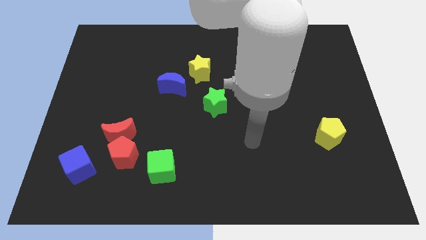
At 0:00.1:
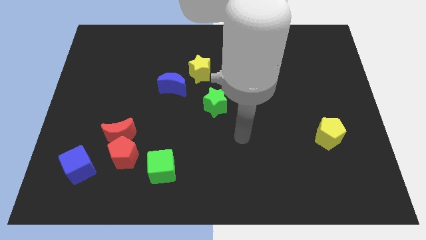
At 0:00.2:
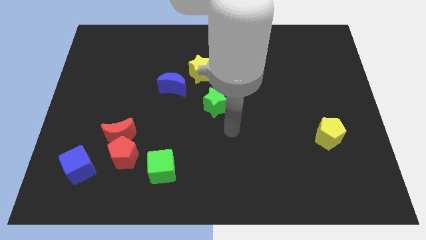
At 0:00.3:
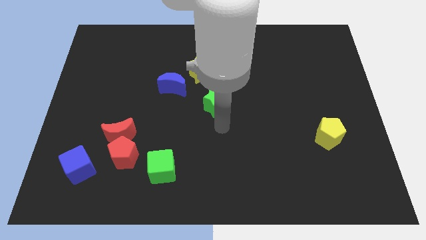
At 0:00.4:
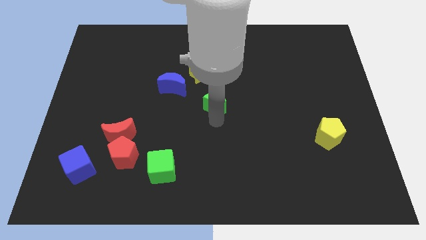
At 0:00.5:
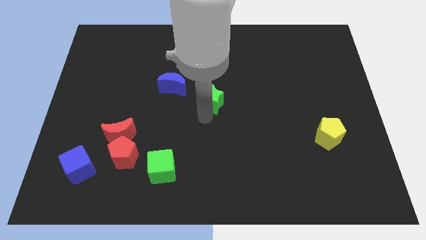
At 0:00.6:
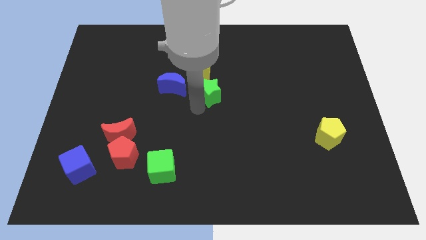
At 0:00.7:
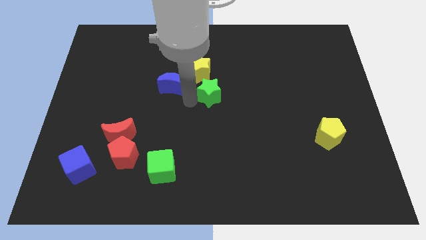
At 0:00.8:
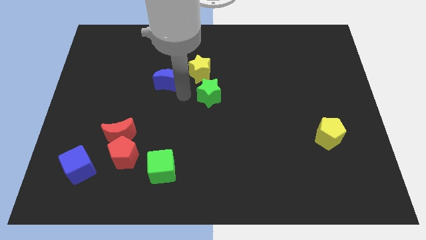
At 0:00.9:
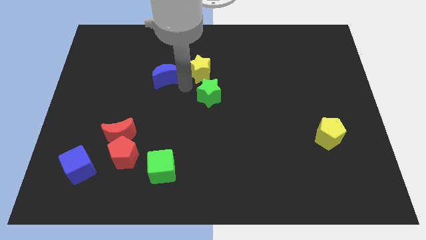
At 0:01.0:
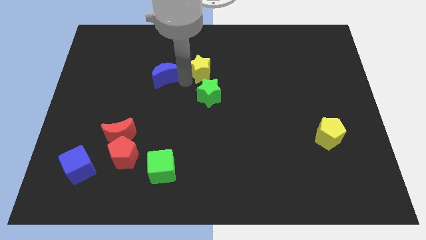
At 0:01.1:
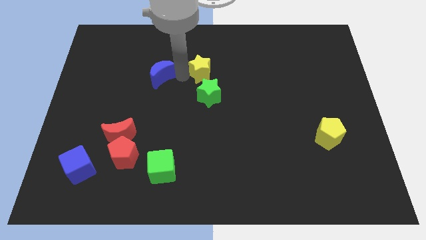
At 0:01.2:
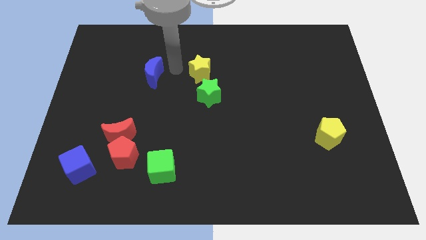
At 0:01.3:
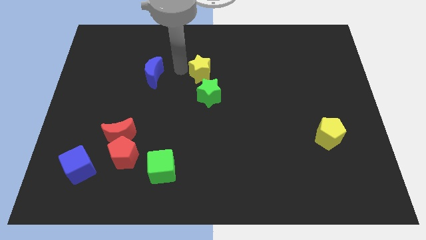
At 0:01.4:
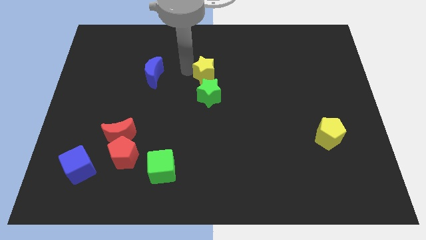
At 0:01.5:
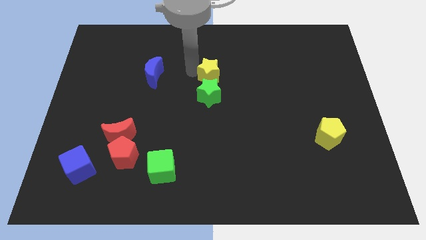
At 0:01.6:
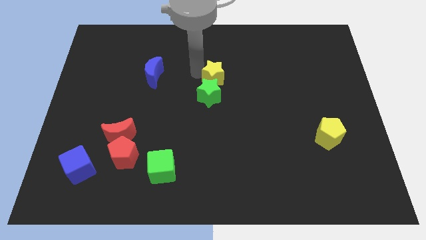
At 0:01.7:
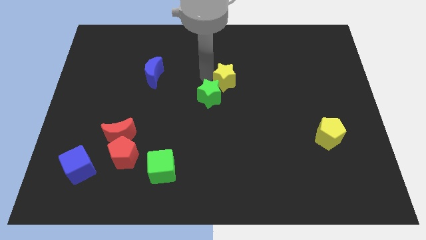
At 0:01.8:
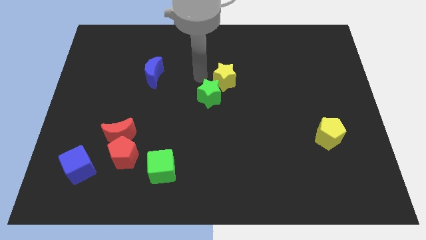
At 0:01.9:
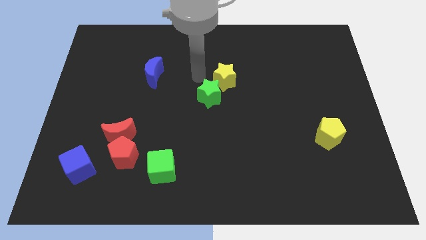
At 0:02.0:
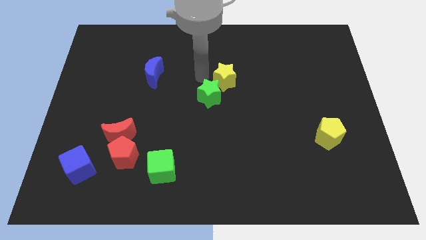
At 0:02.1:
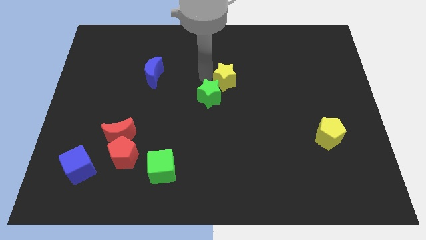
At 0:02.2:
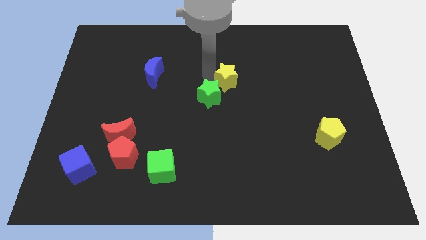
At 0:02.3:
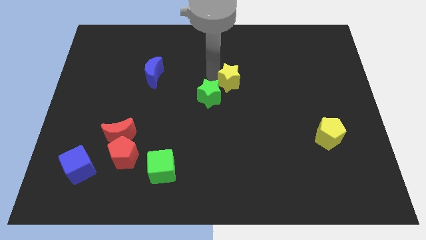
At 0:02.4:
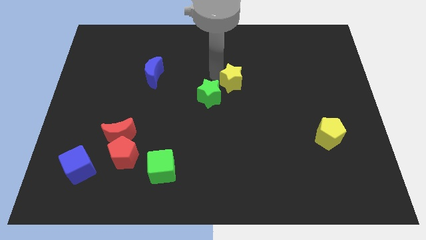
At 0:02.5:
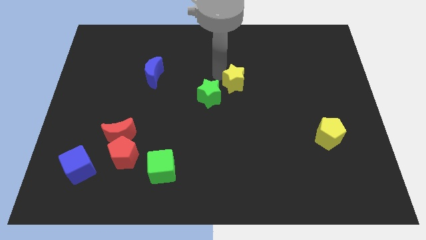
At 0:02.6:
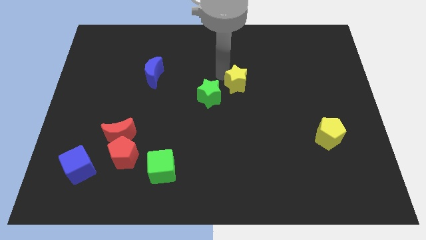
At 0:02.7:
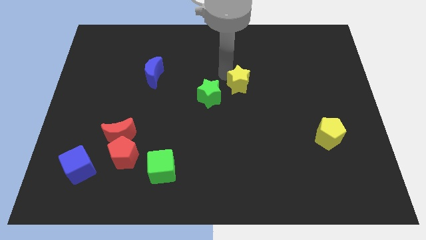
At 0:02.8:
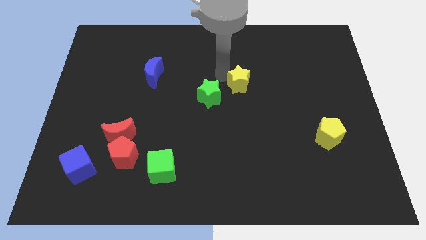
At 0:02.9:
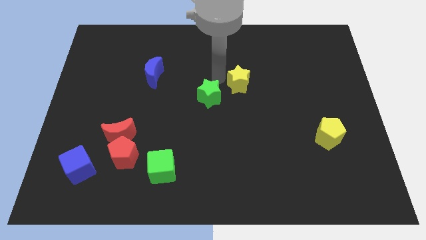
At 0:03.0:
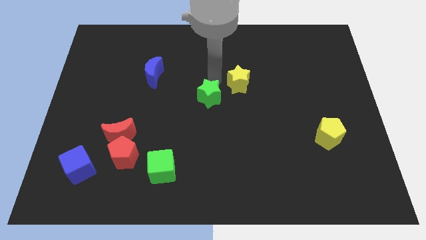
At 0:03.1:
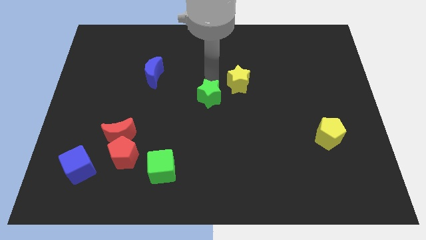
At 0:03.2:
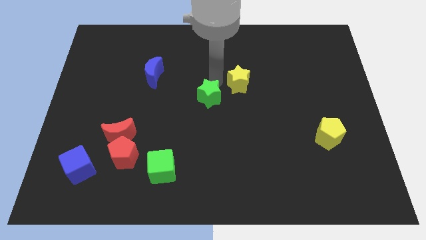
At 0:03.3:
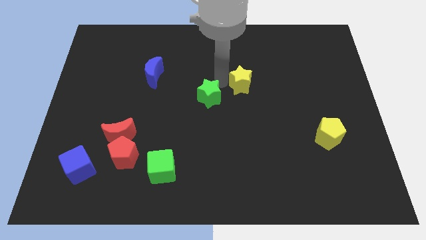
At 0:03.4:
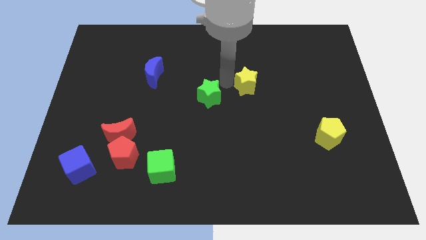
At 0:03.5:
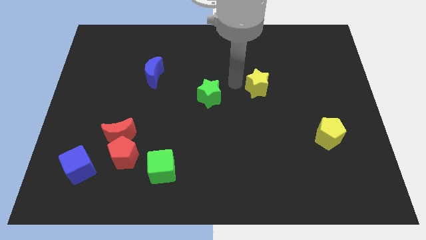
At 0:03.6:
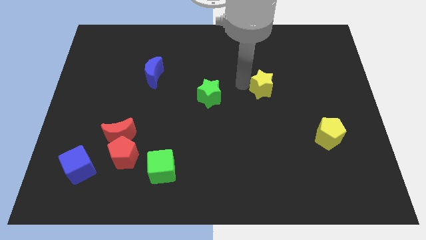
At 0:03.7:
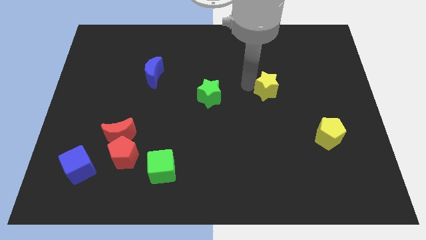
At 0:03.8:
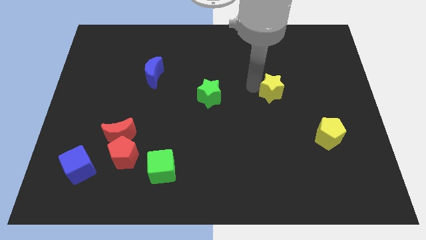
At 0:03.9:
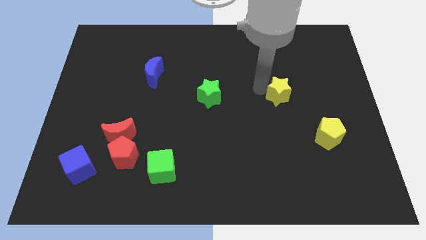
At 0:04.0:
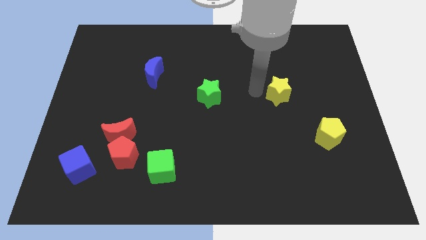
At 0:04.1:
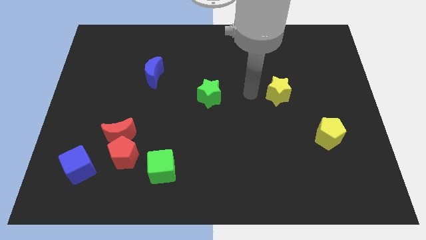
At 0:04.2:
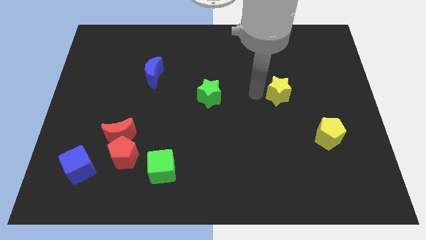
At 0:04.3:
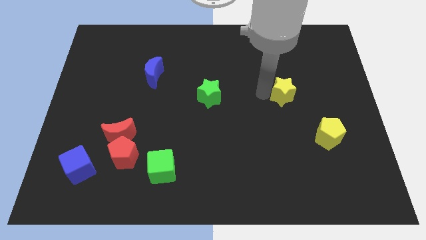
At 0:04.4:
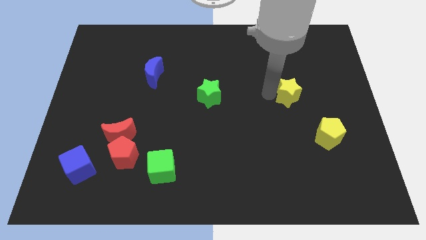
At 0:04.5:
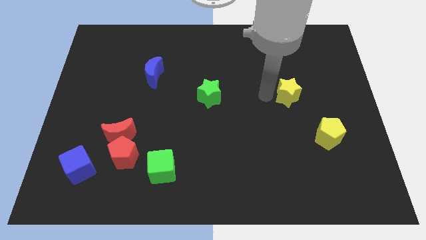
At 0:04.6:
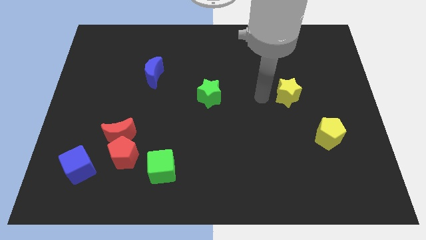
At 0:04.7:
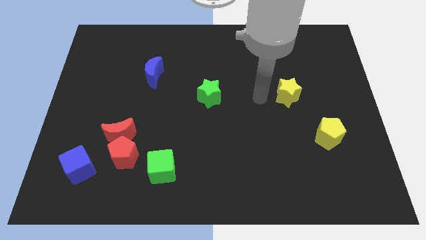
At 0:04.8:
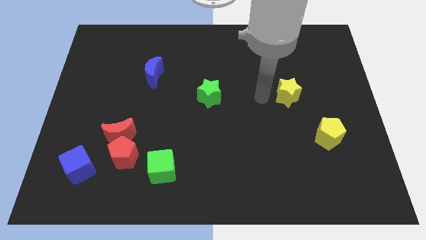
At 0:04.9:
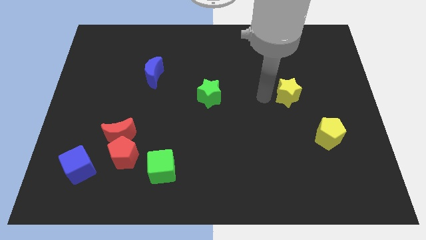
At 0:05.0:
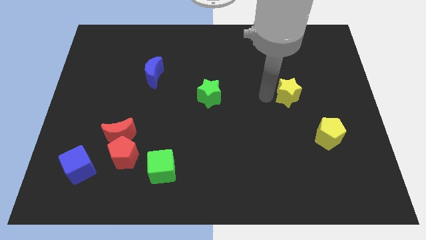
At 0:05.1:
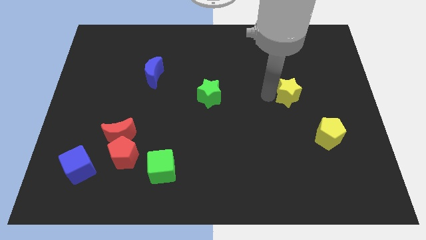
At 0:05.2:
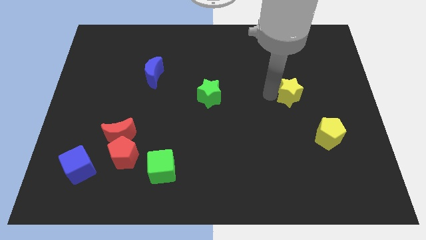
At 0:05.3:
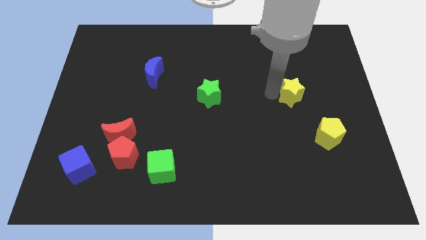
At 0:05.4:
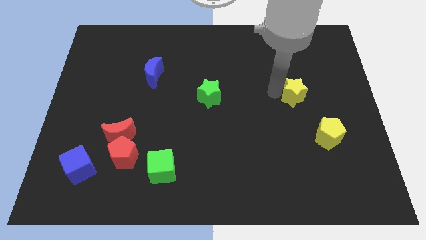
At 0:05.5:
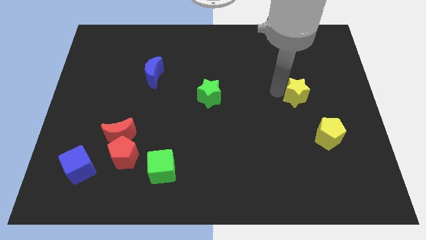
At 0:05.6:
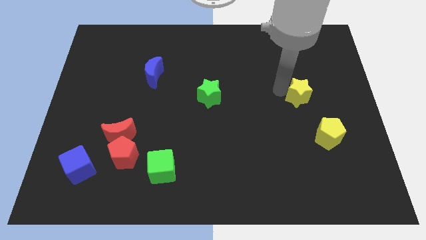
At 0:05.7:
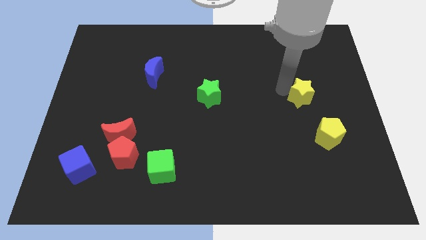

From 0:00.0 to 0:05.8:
put the yellow star above the yellow pentagon

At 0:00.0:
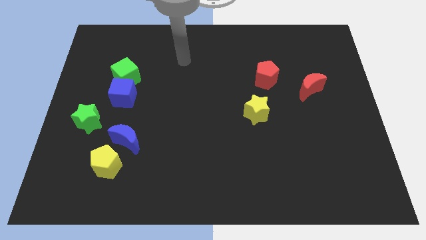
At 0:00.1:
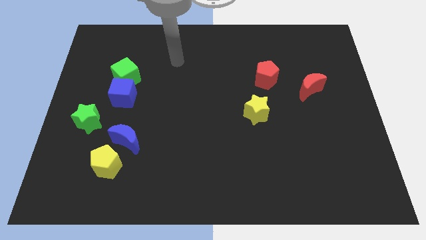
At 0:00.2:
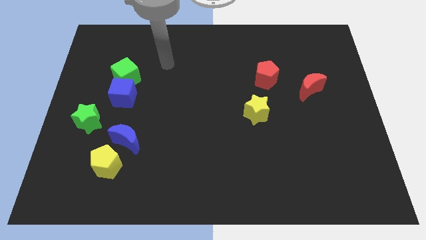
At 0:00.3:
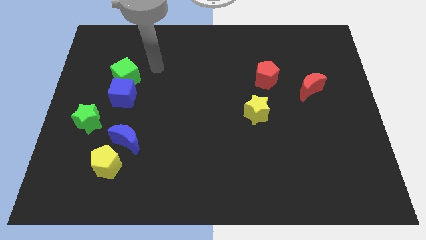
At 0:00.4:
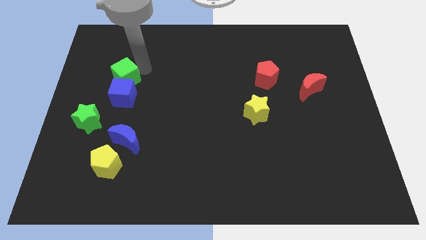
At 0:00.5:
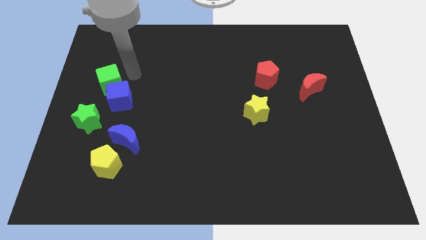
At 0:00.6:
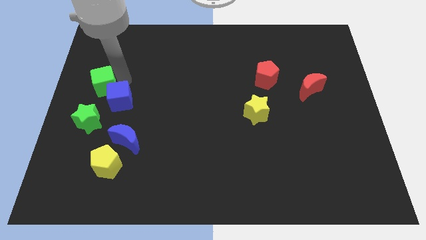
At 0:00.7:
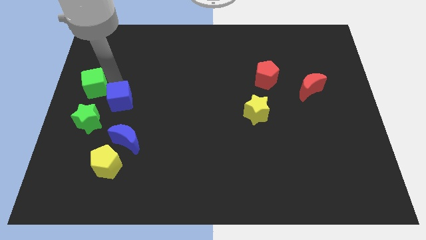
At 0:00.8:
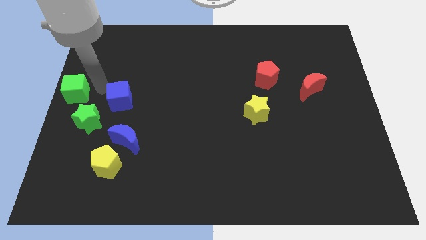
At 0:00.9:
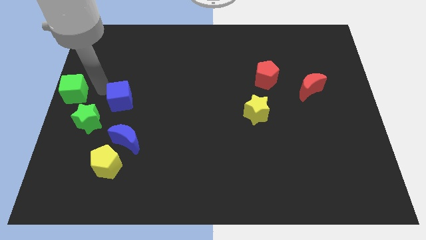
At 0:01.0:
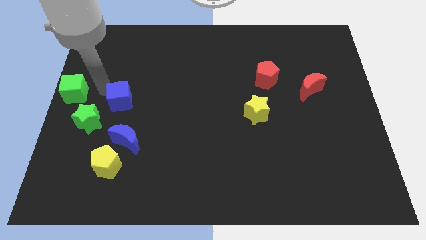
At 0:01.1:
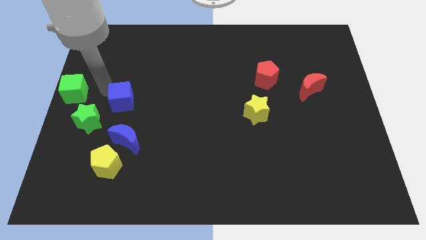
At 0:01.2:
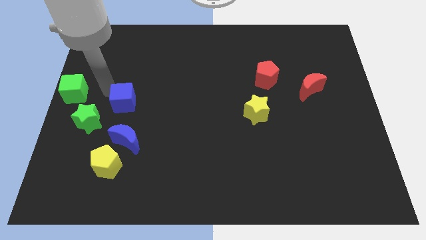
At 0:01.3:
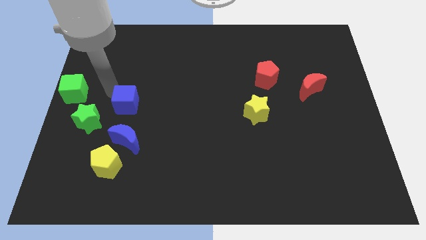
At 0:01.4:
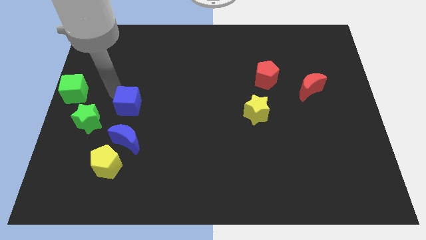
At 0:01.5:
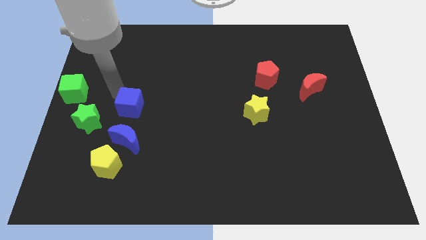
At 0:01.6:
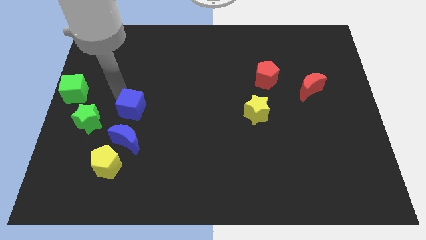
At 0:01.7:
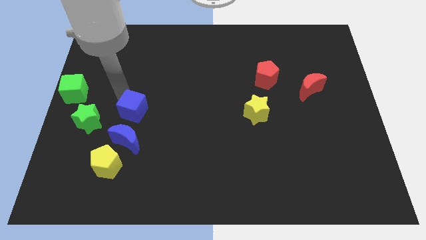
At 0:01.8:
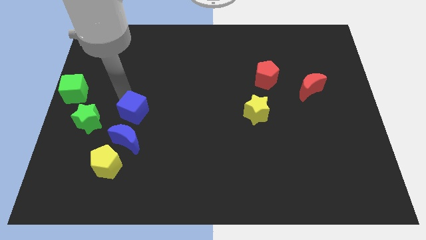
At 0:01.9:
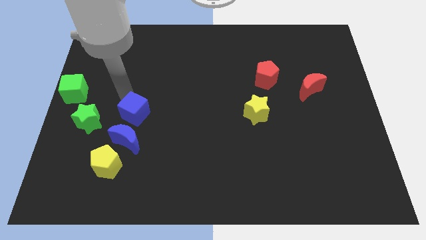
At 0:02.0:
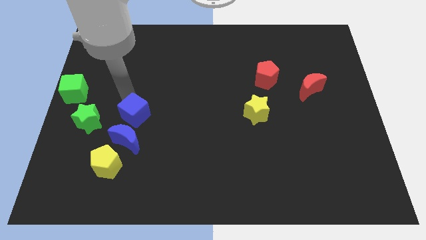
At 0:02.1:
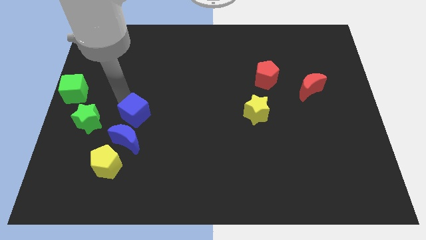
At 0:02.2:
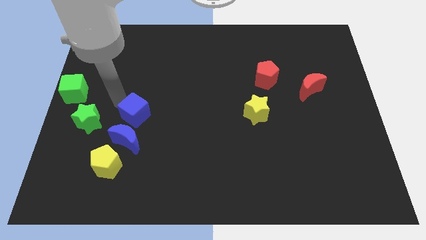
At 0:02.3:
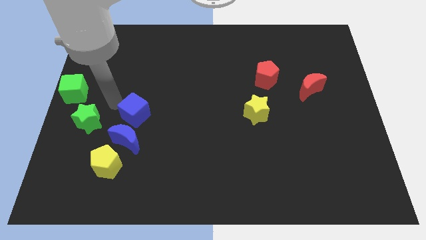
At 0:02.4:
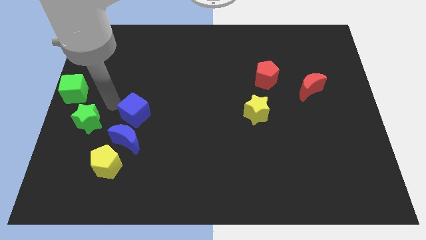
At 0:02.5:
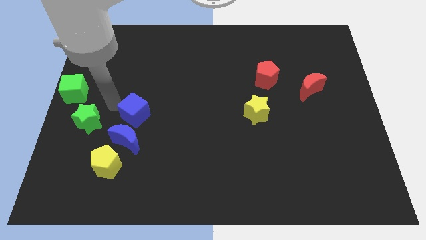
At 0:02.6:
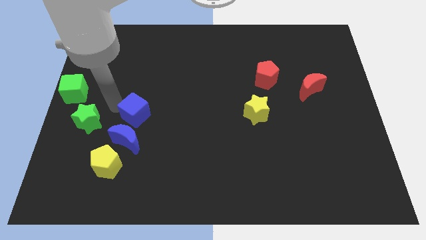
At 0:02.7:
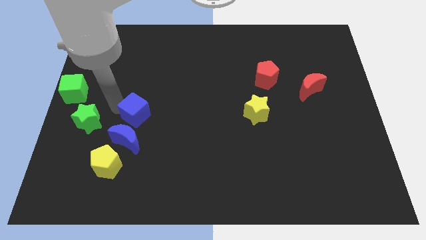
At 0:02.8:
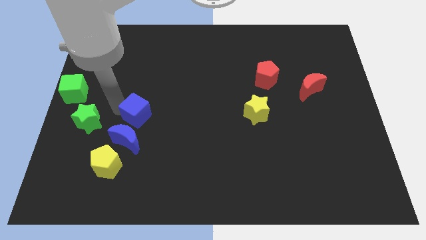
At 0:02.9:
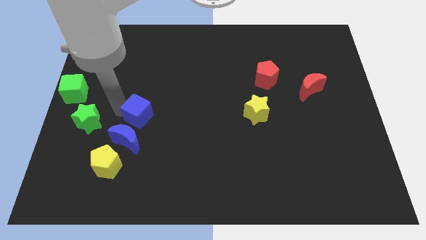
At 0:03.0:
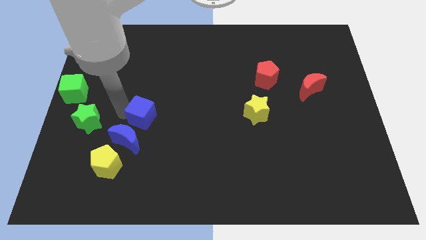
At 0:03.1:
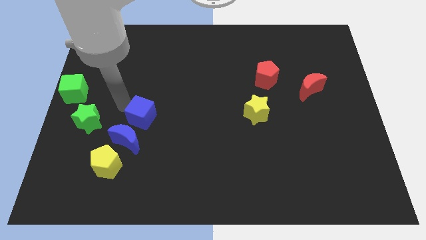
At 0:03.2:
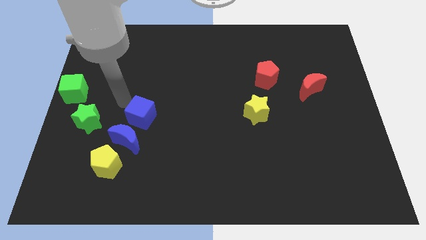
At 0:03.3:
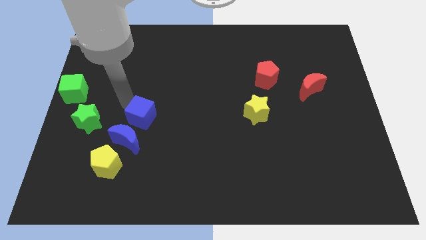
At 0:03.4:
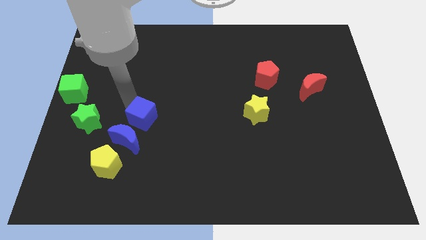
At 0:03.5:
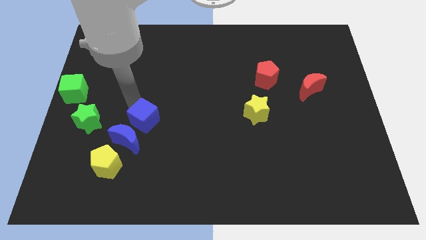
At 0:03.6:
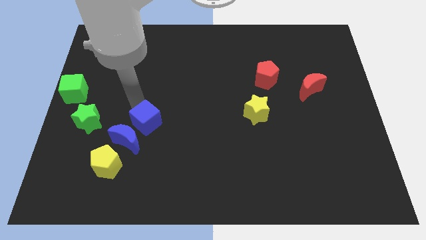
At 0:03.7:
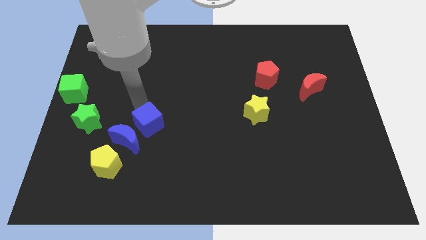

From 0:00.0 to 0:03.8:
push the blue cube to the right of the blue moon
